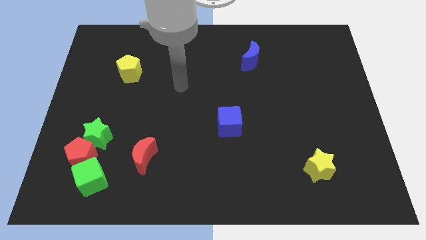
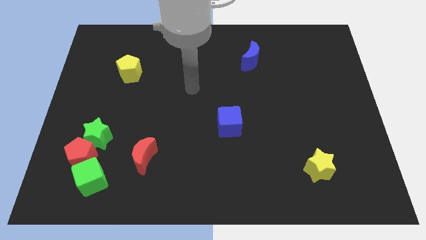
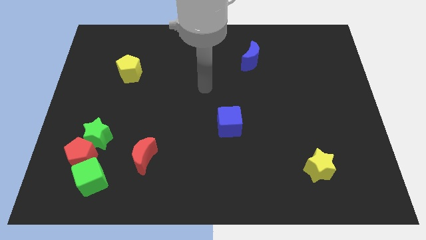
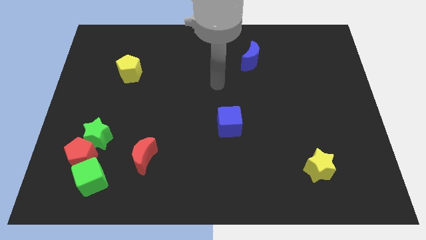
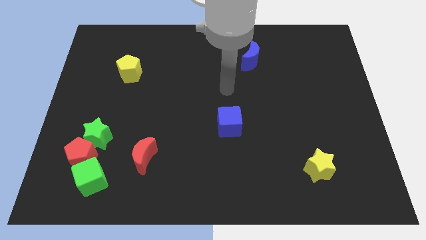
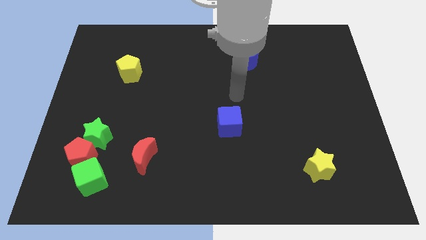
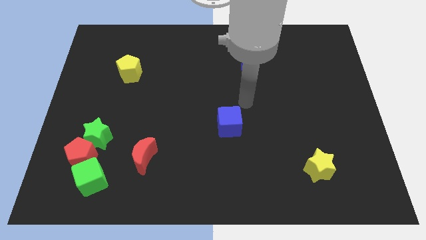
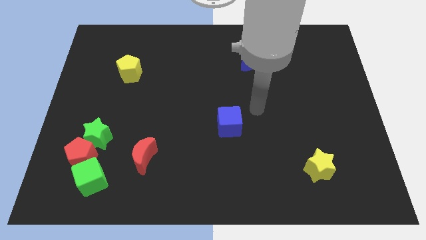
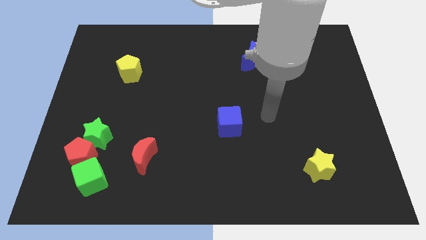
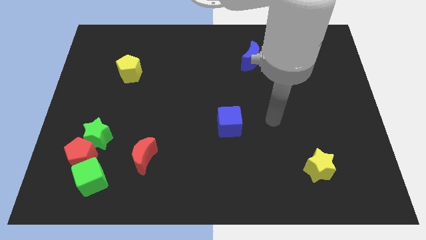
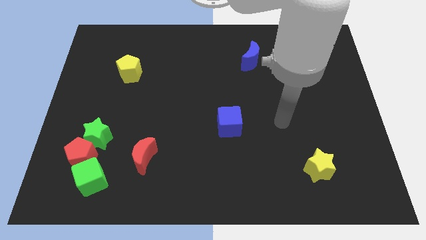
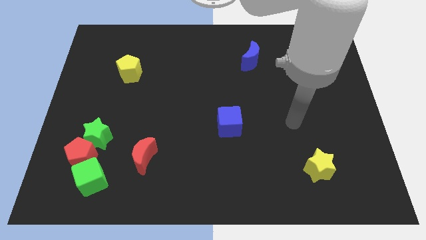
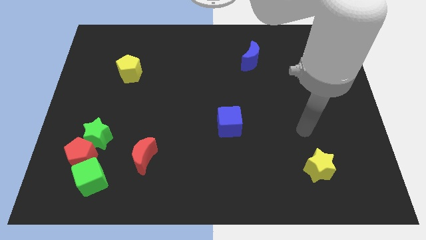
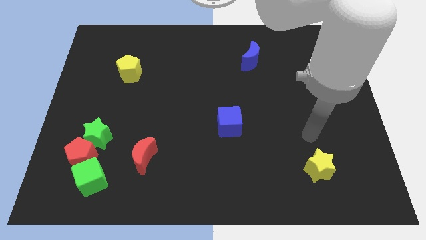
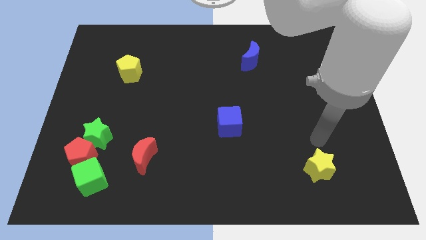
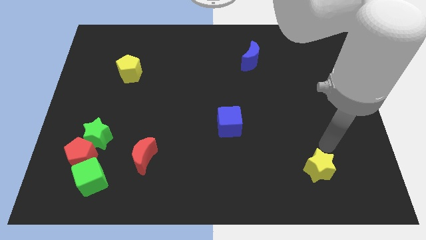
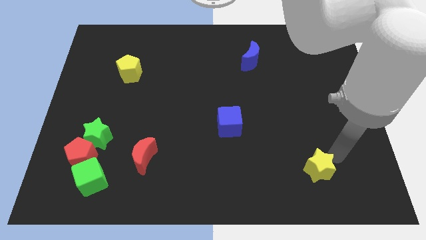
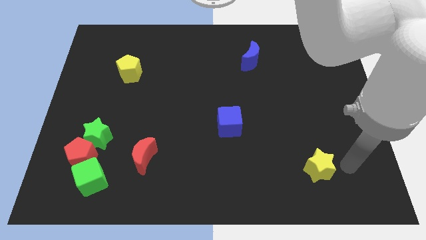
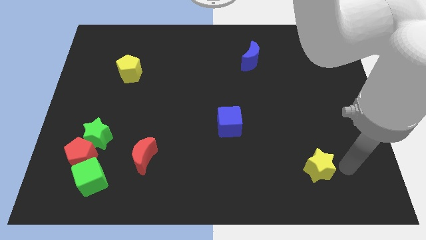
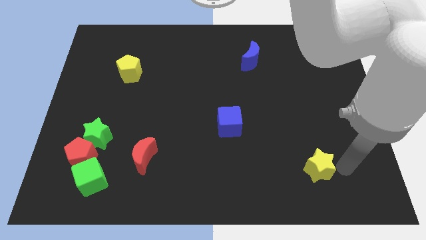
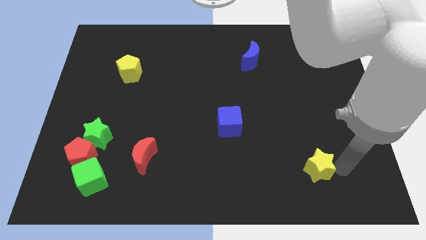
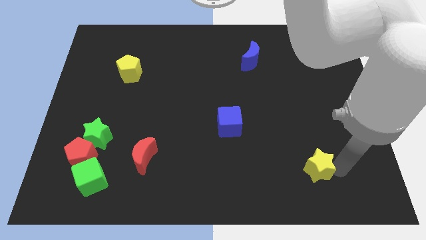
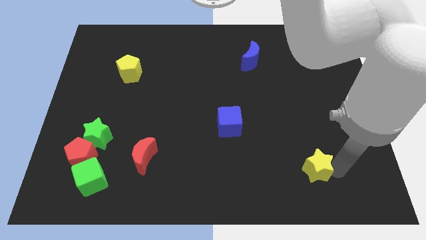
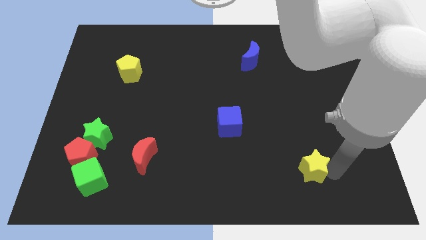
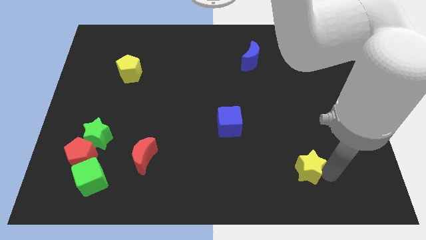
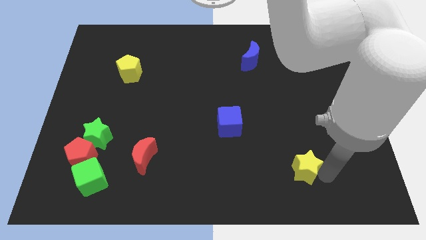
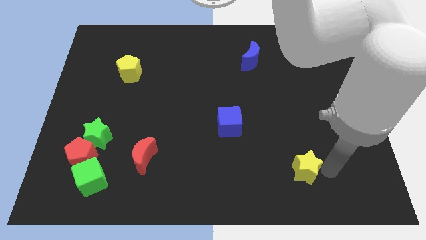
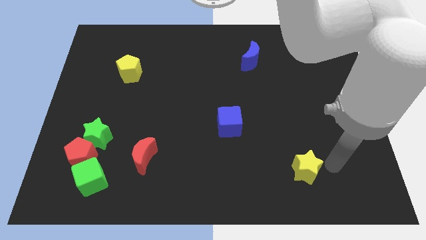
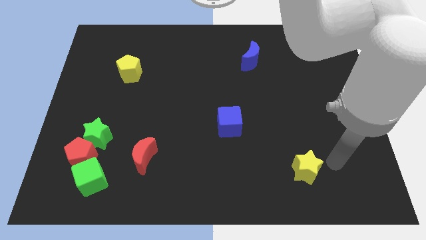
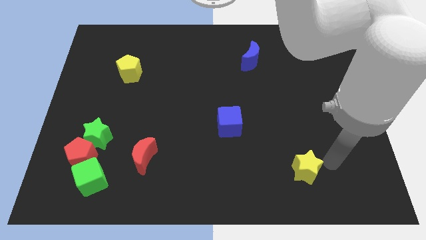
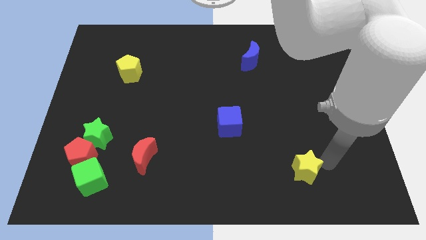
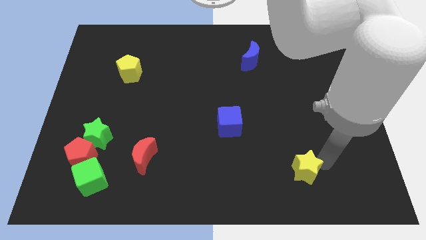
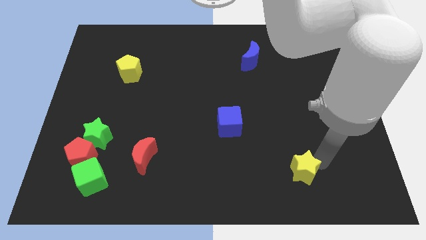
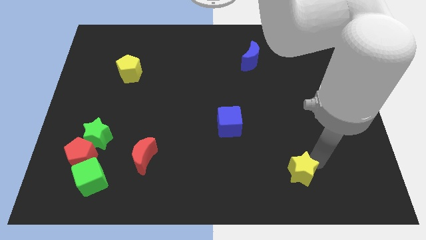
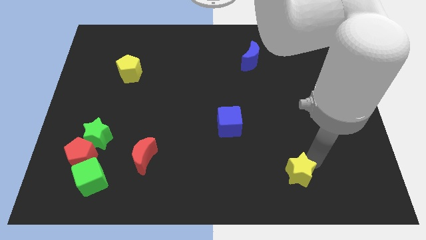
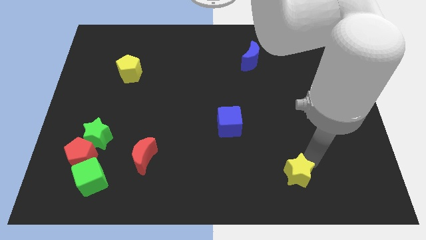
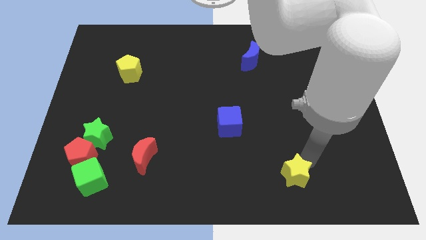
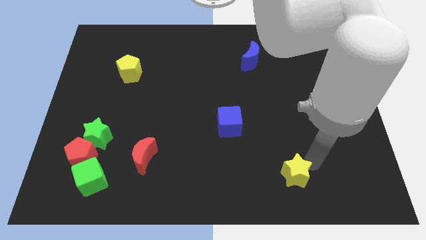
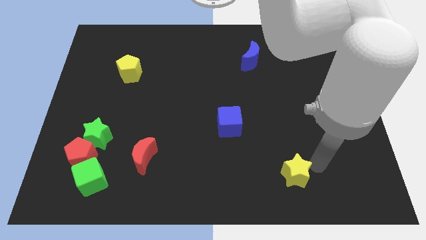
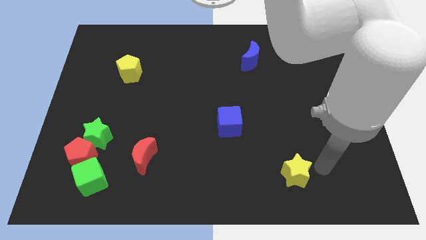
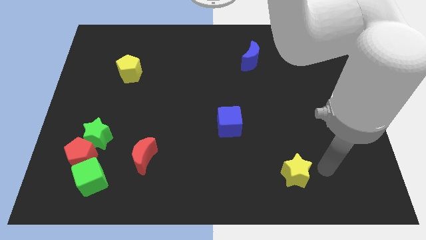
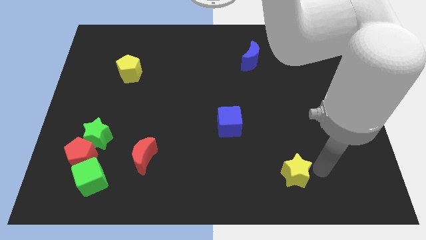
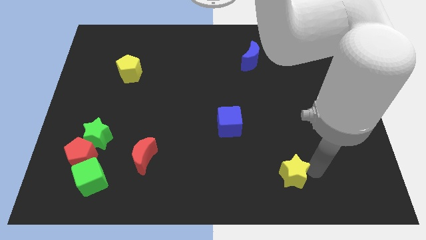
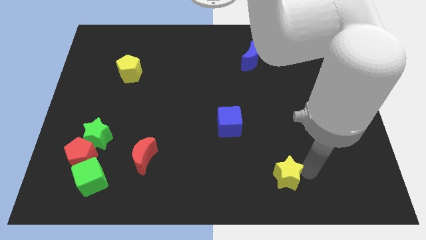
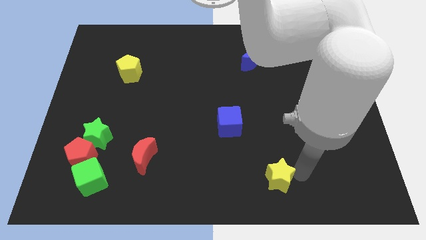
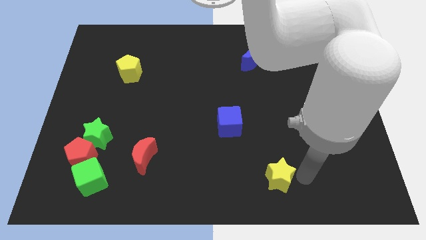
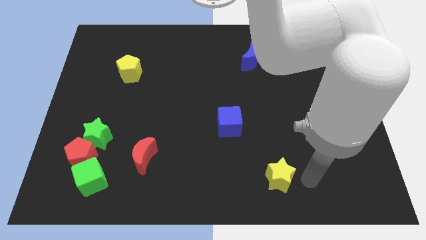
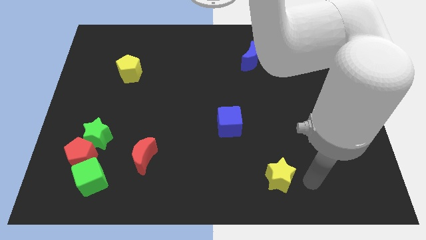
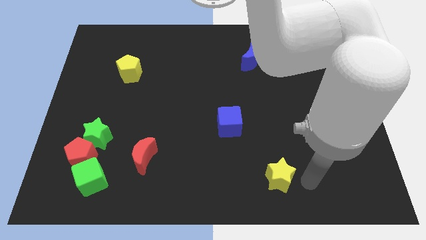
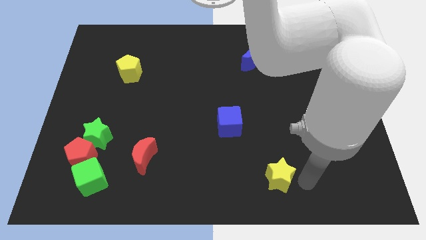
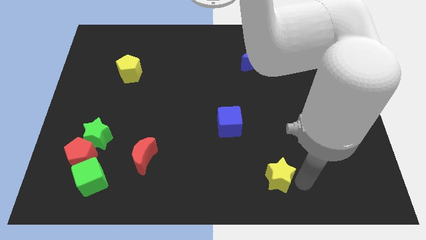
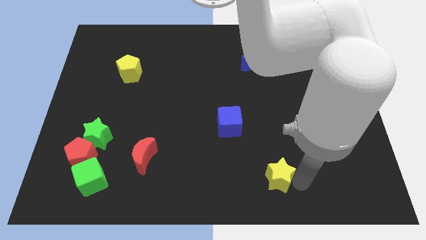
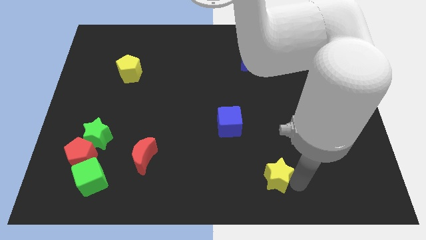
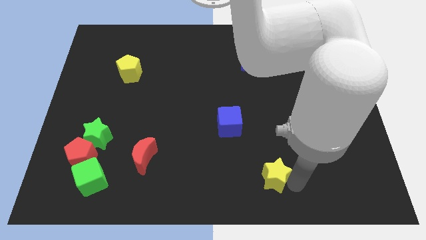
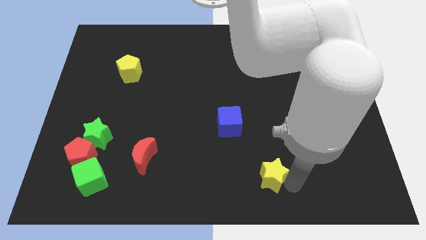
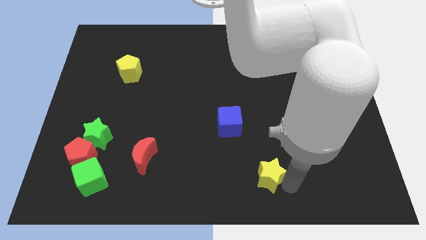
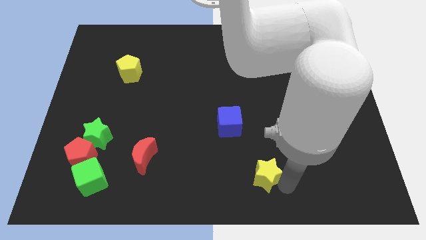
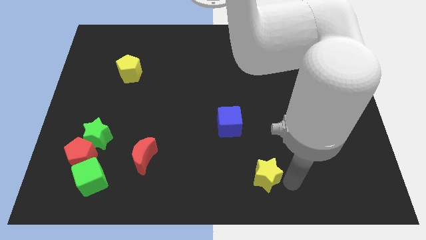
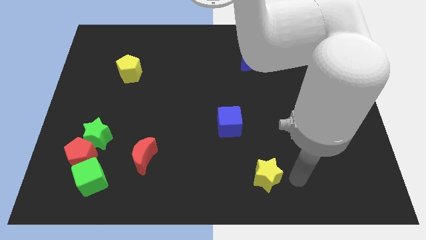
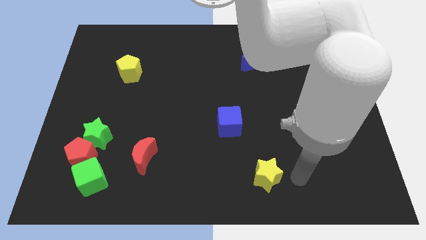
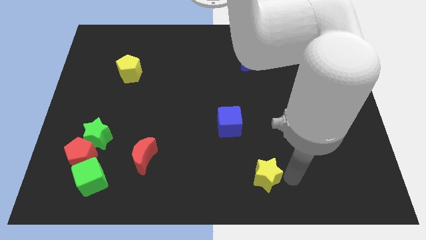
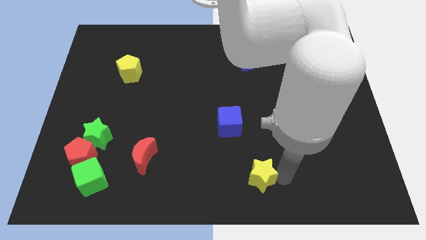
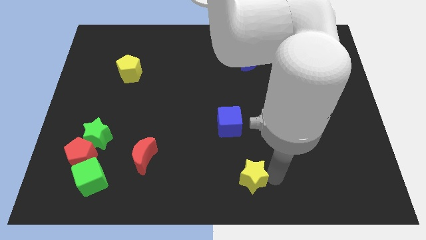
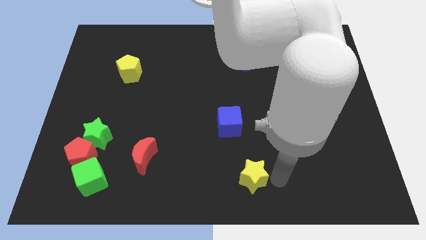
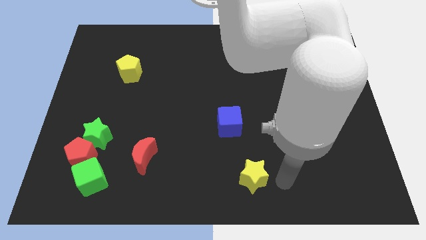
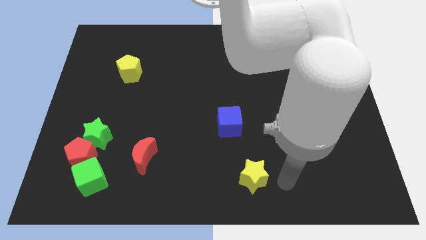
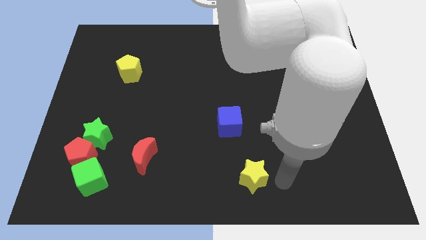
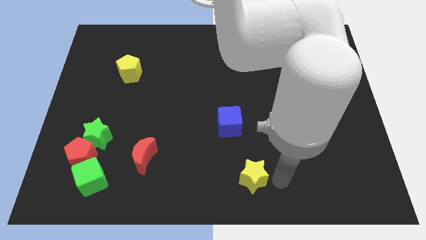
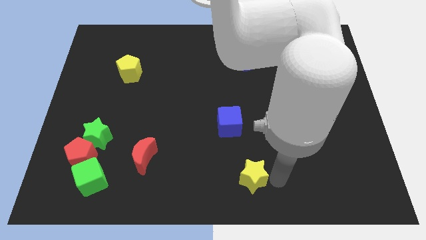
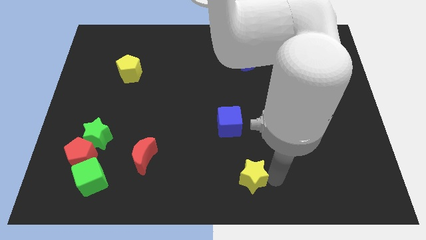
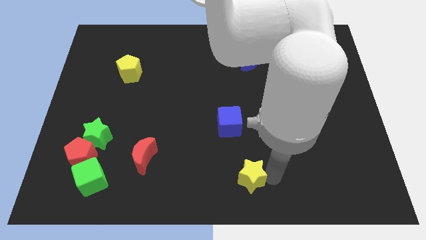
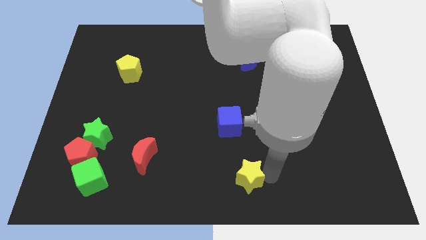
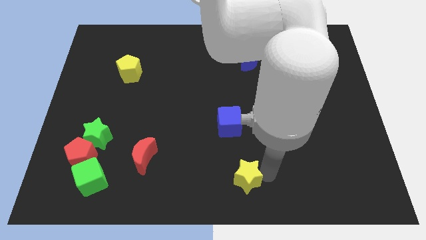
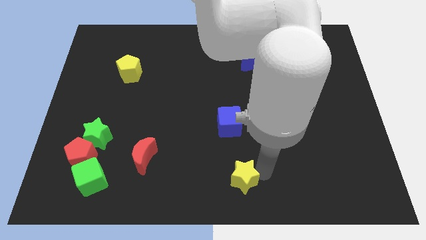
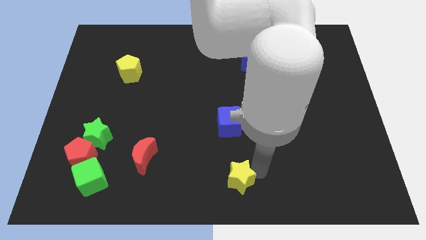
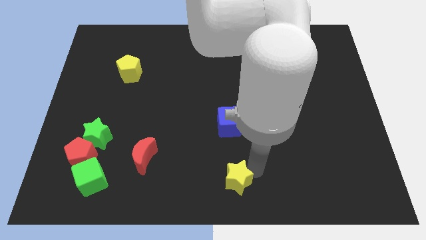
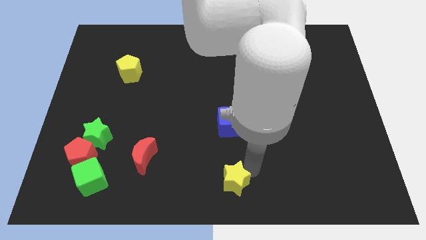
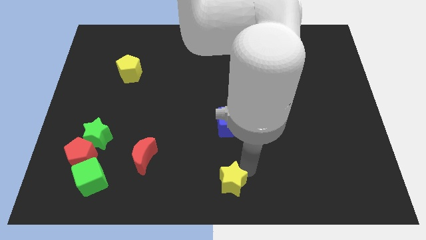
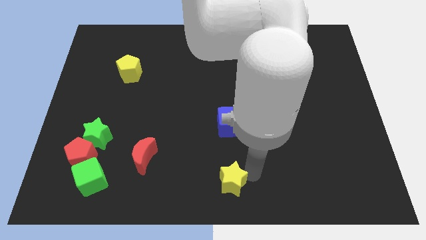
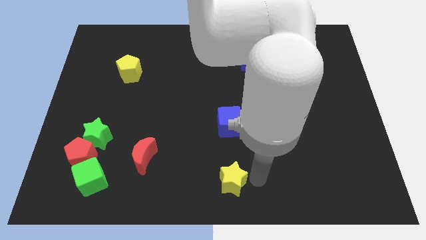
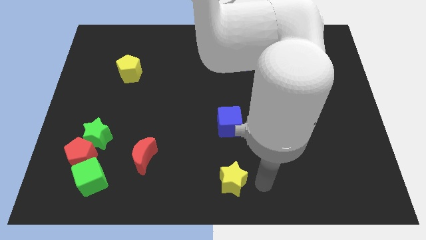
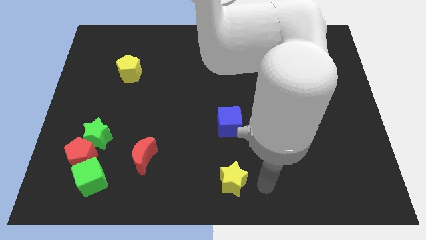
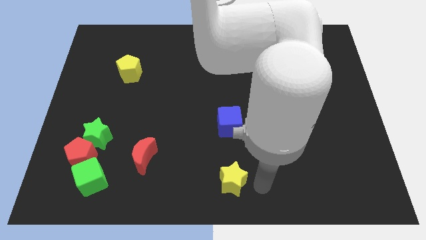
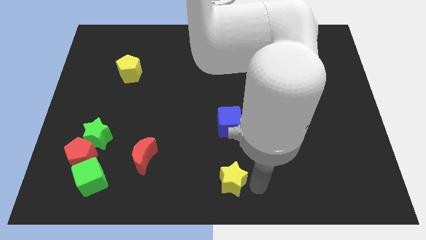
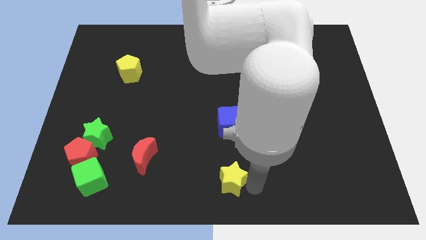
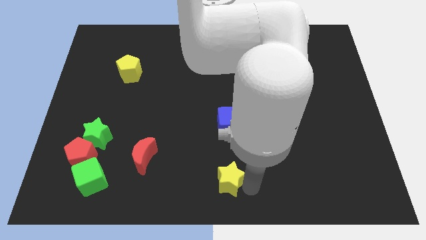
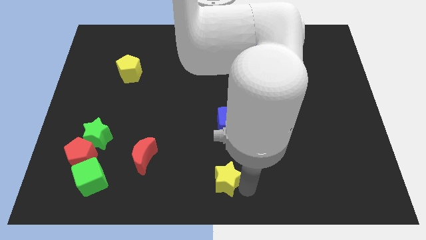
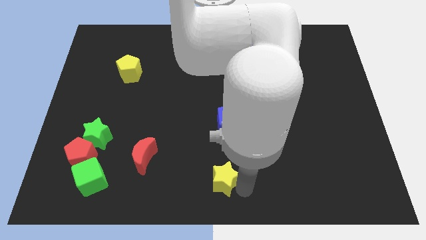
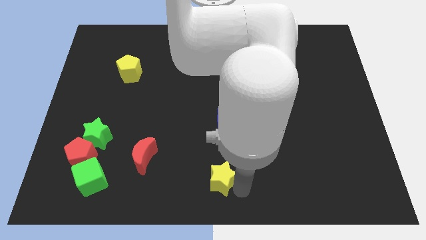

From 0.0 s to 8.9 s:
move the yellow star to the left
